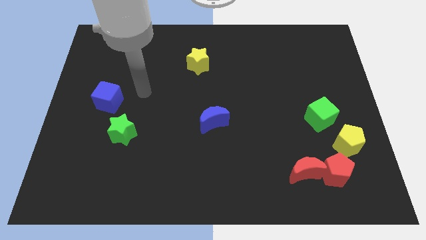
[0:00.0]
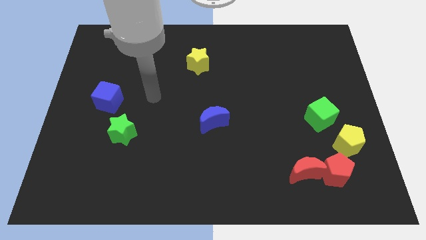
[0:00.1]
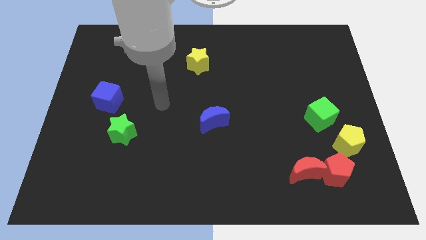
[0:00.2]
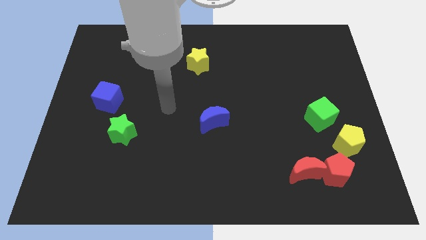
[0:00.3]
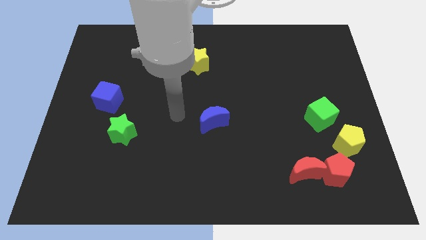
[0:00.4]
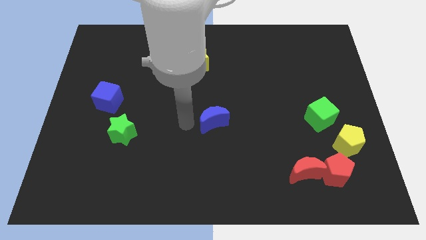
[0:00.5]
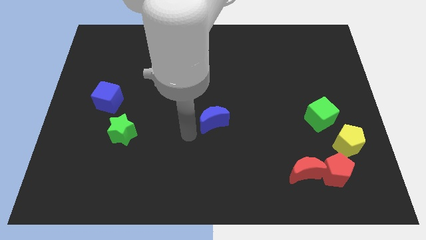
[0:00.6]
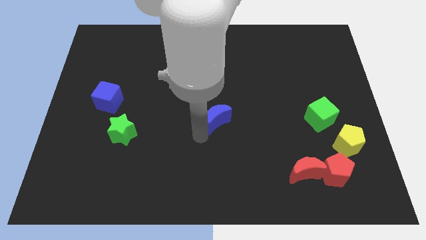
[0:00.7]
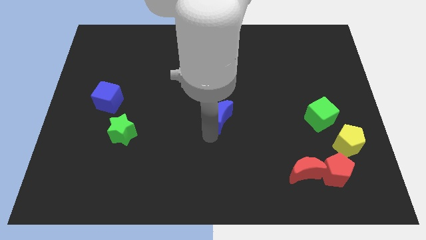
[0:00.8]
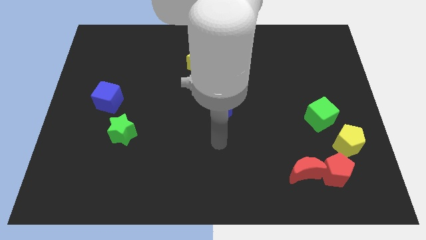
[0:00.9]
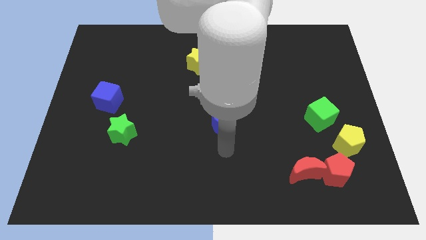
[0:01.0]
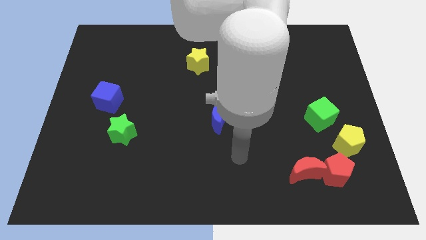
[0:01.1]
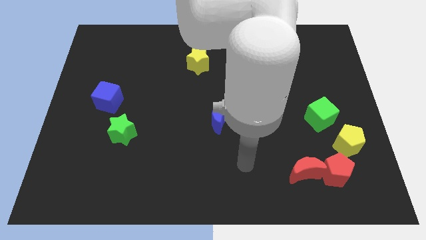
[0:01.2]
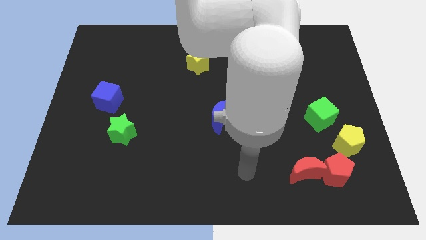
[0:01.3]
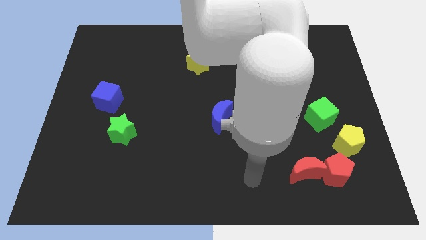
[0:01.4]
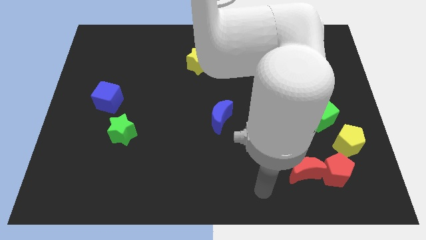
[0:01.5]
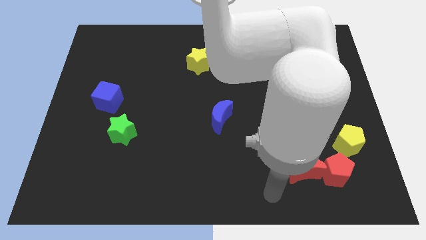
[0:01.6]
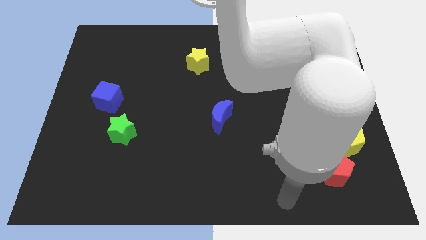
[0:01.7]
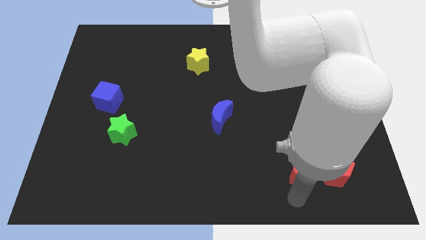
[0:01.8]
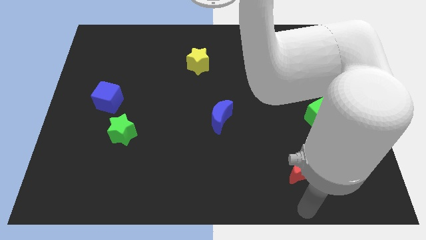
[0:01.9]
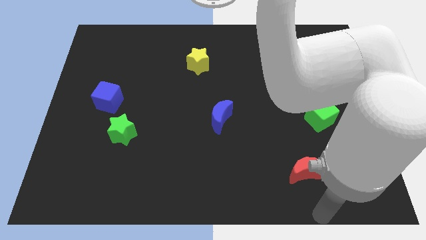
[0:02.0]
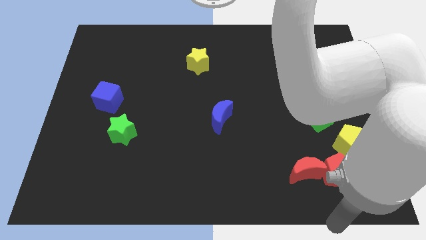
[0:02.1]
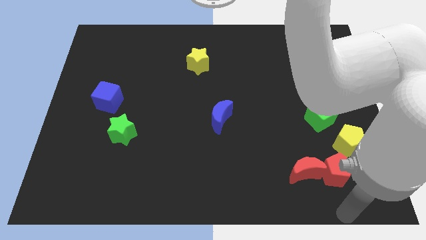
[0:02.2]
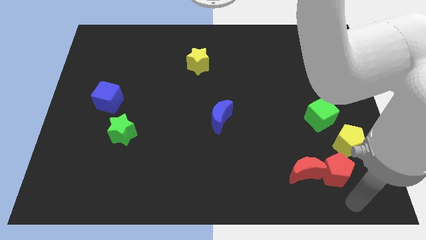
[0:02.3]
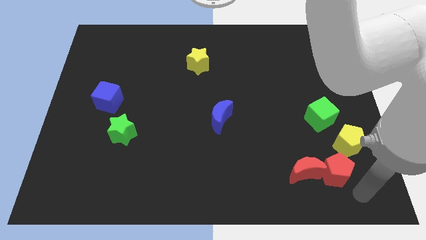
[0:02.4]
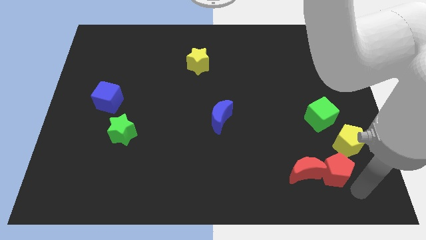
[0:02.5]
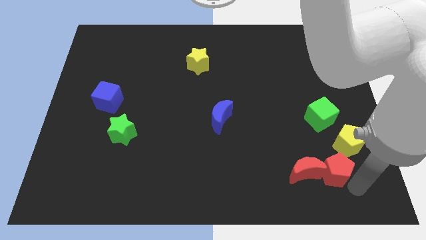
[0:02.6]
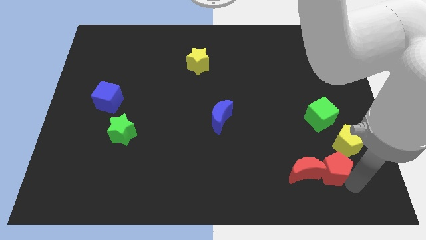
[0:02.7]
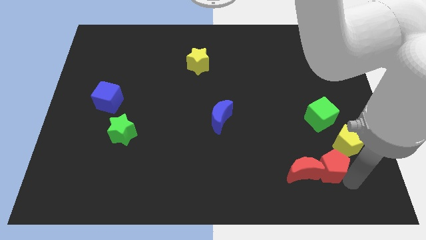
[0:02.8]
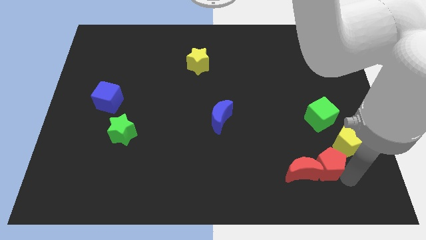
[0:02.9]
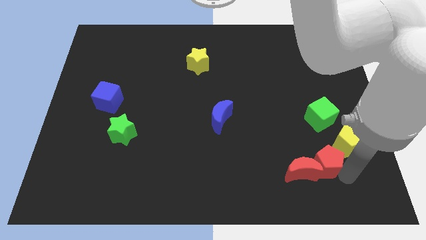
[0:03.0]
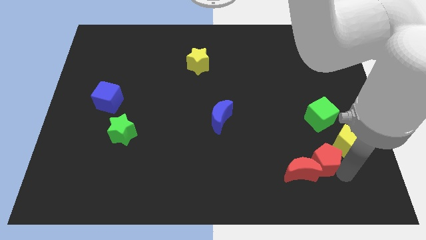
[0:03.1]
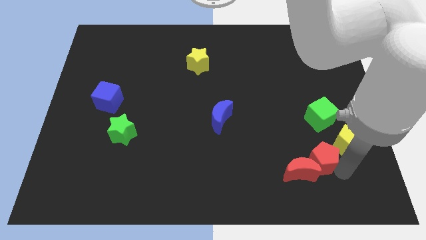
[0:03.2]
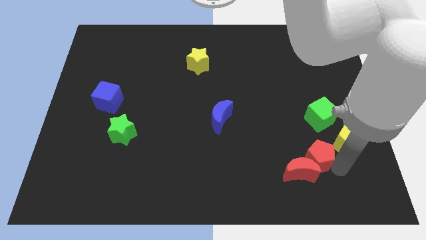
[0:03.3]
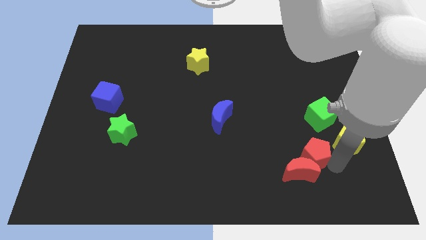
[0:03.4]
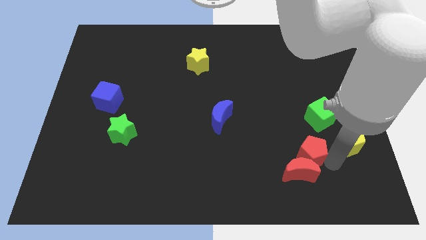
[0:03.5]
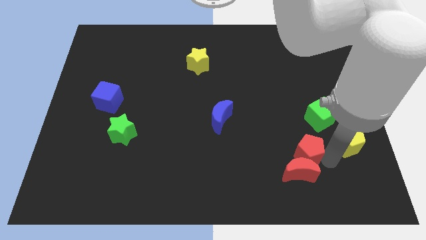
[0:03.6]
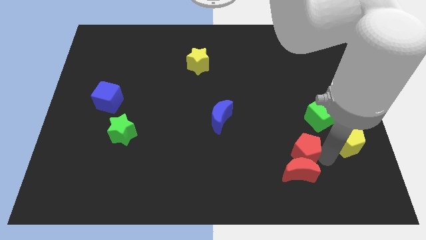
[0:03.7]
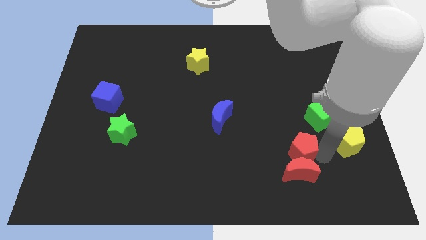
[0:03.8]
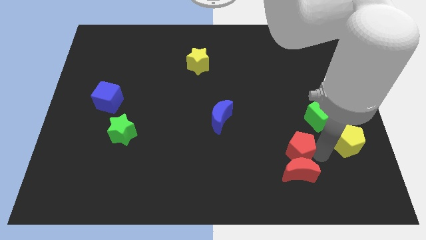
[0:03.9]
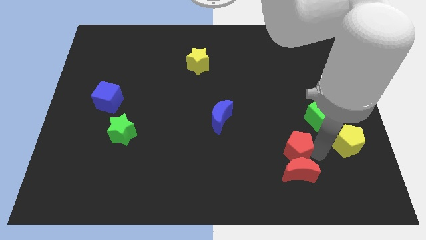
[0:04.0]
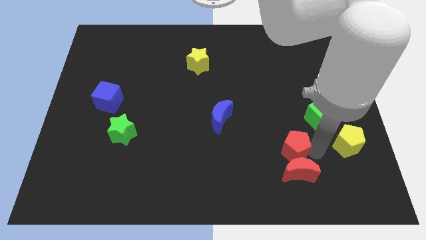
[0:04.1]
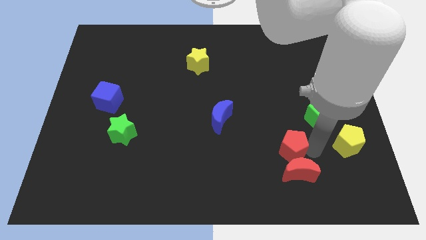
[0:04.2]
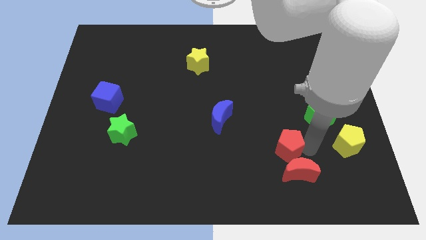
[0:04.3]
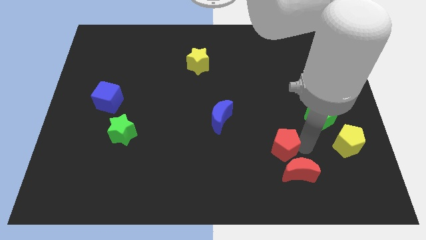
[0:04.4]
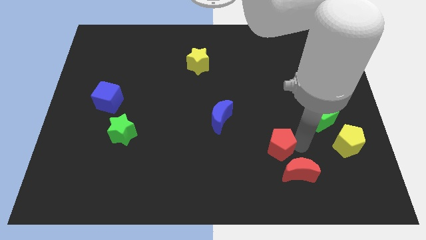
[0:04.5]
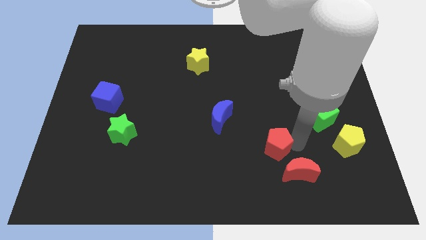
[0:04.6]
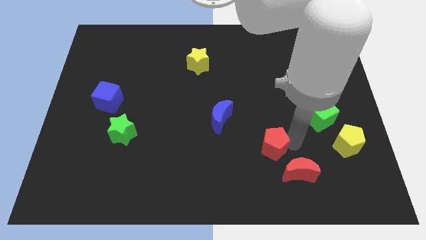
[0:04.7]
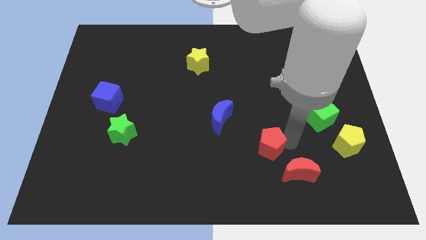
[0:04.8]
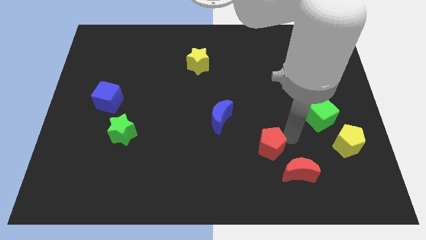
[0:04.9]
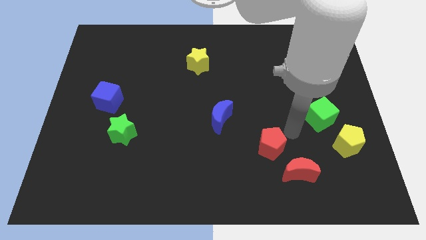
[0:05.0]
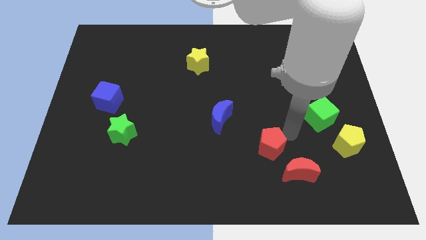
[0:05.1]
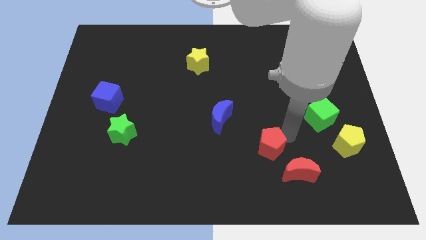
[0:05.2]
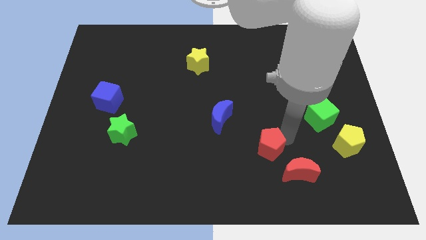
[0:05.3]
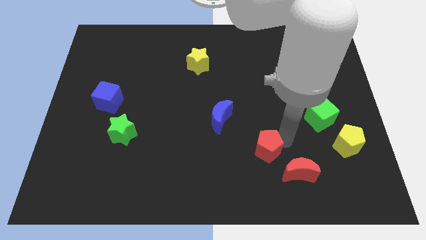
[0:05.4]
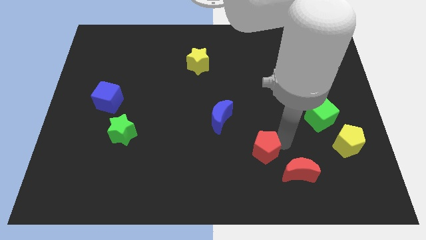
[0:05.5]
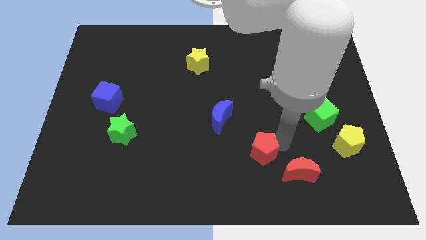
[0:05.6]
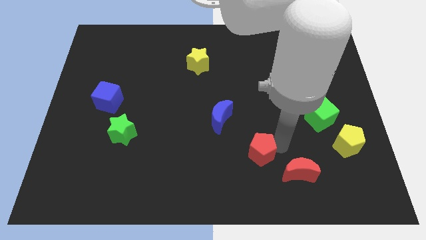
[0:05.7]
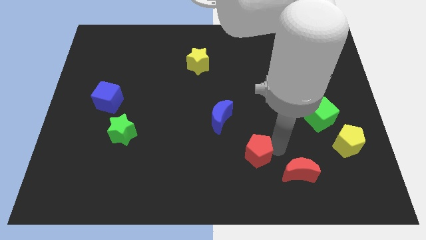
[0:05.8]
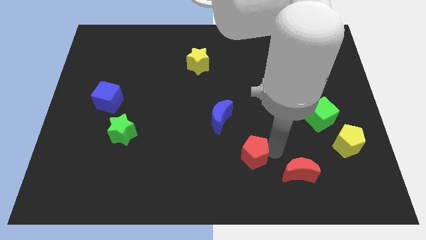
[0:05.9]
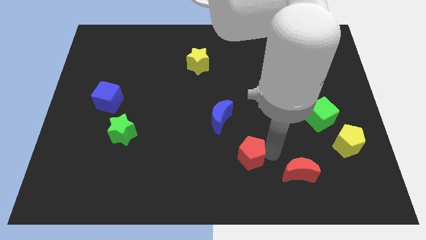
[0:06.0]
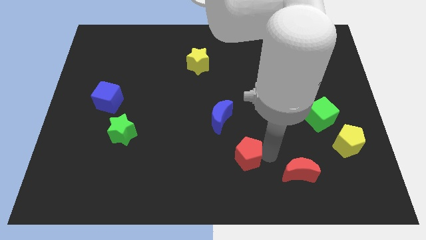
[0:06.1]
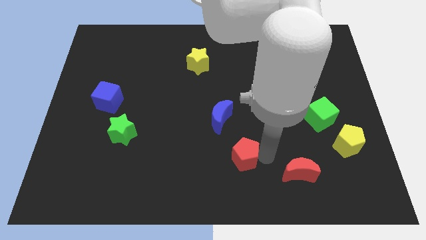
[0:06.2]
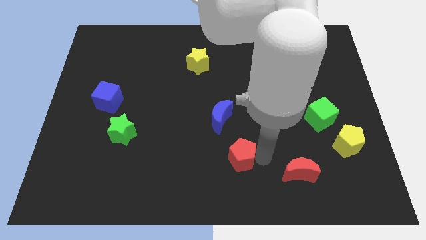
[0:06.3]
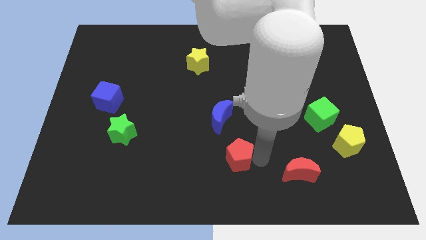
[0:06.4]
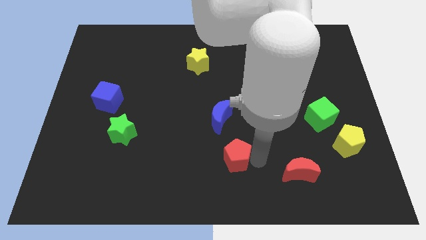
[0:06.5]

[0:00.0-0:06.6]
move the red pentagon left

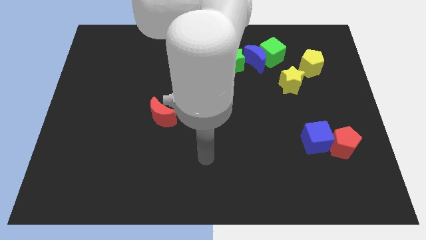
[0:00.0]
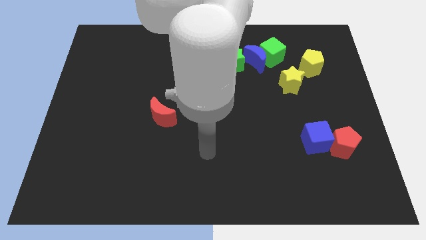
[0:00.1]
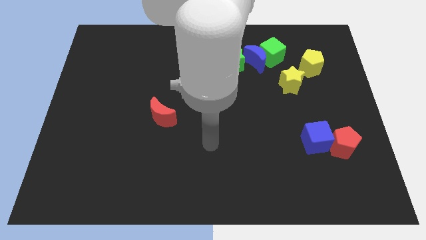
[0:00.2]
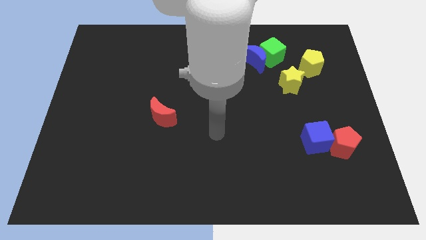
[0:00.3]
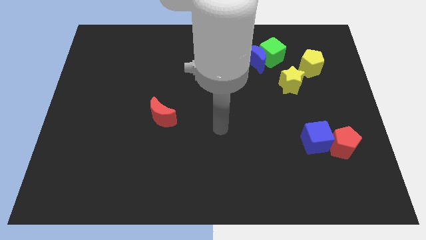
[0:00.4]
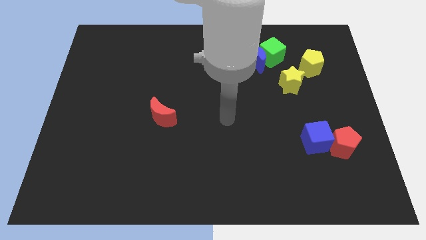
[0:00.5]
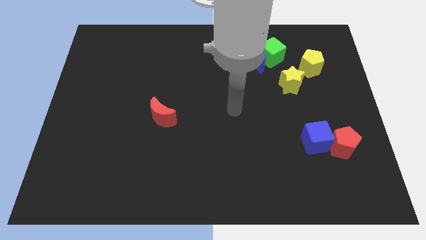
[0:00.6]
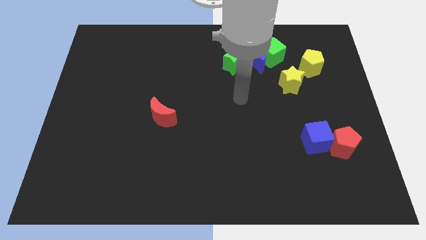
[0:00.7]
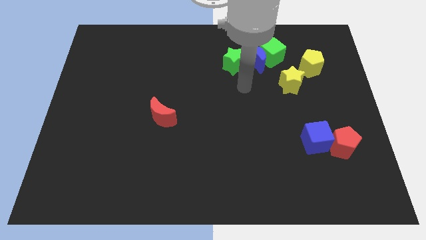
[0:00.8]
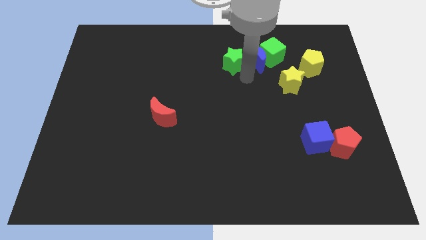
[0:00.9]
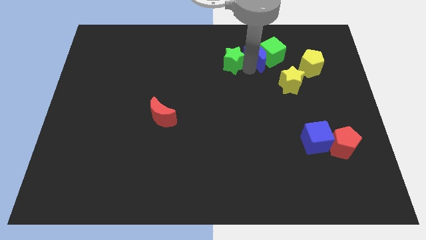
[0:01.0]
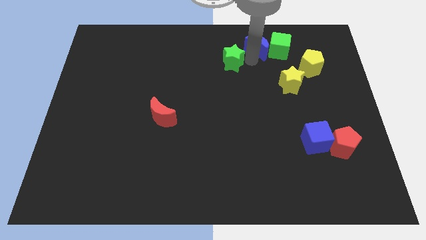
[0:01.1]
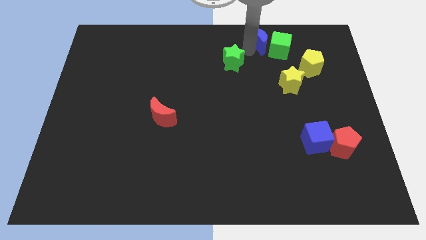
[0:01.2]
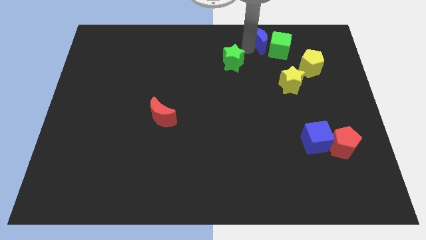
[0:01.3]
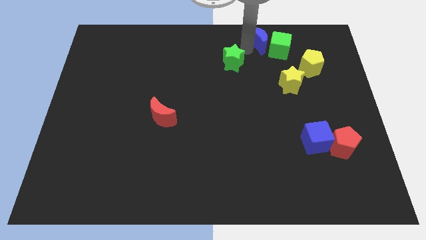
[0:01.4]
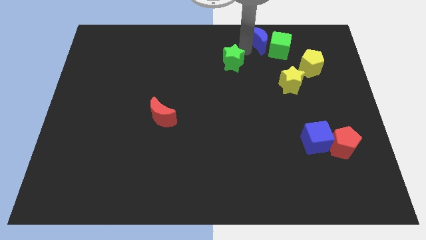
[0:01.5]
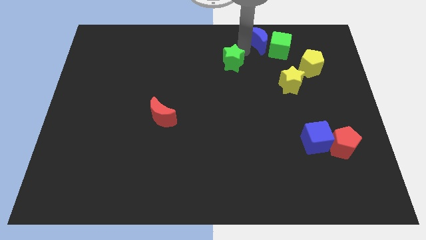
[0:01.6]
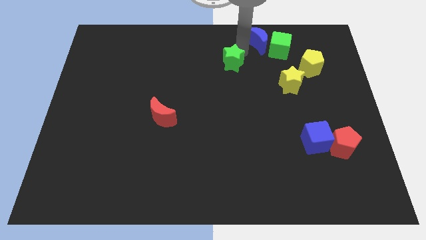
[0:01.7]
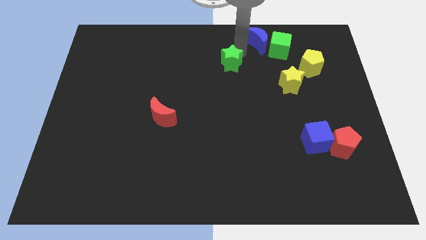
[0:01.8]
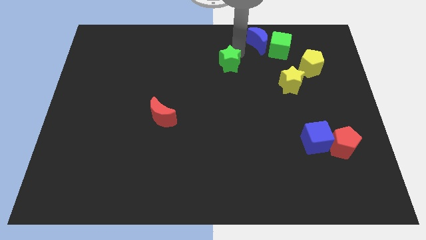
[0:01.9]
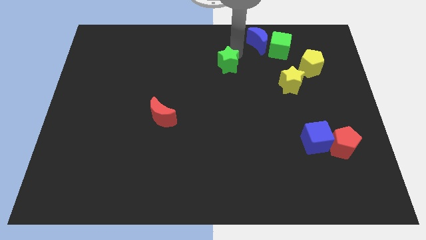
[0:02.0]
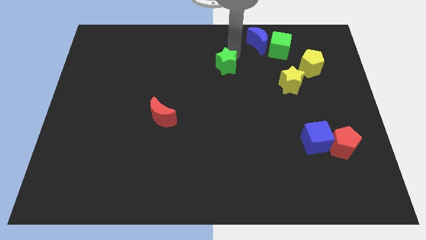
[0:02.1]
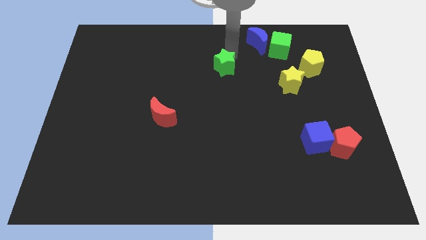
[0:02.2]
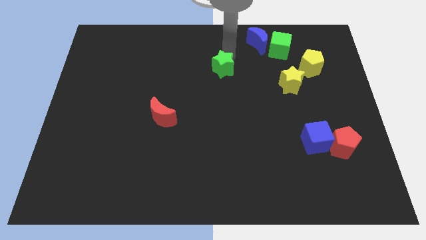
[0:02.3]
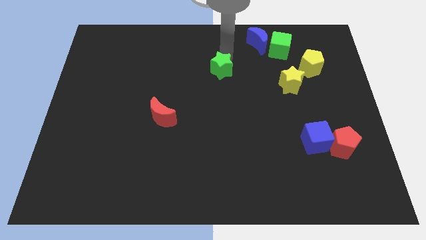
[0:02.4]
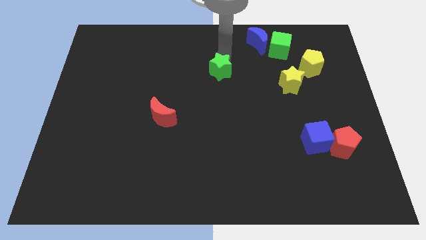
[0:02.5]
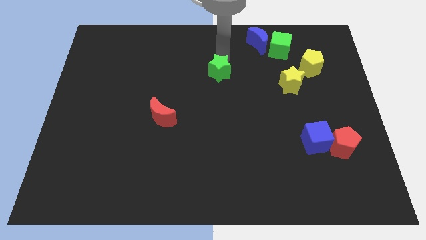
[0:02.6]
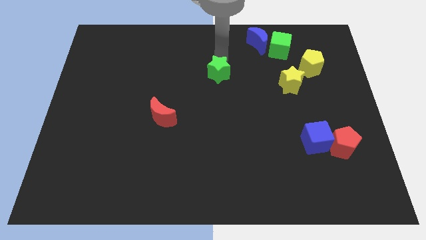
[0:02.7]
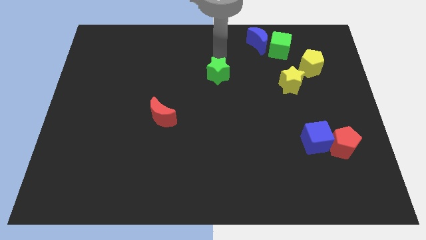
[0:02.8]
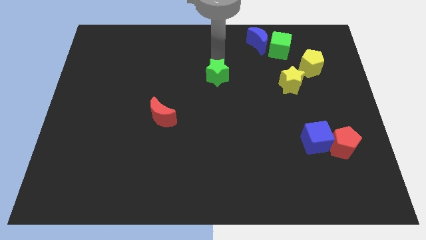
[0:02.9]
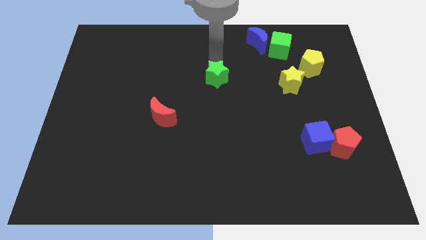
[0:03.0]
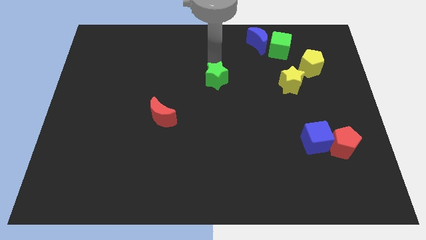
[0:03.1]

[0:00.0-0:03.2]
slightly push the green star down and left diagonally
